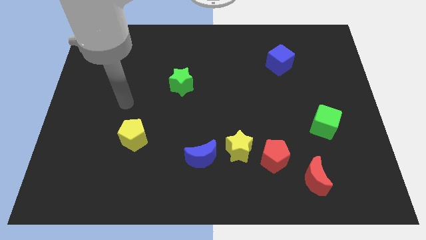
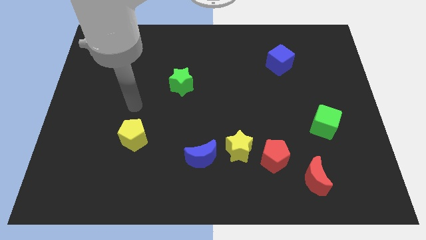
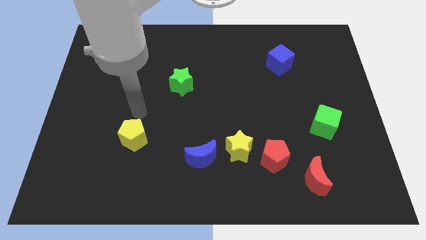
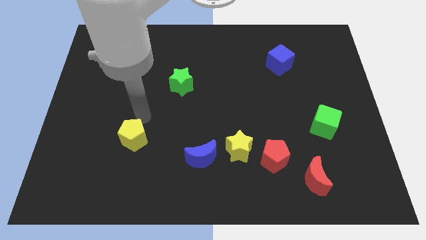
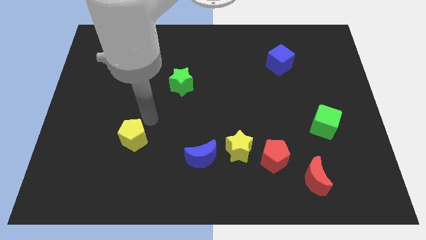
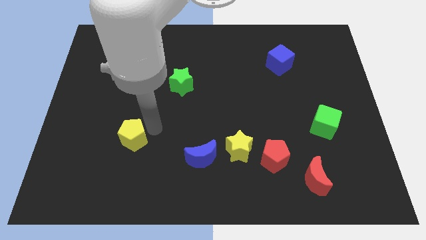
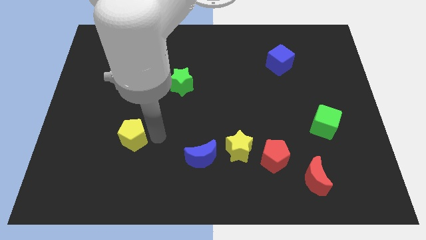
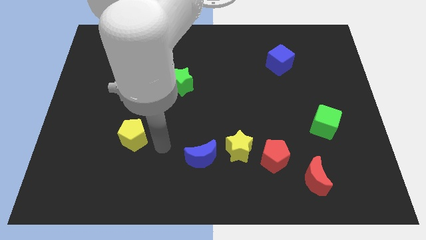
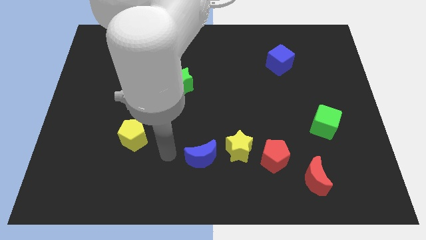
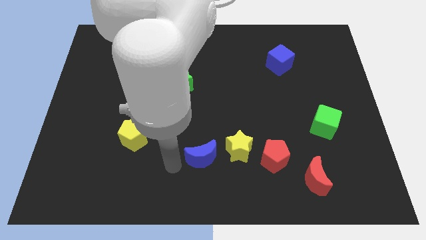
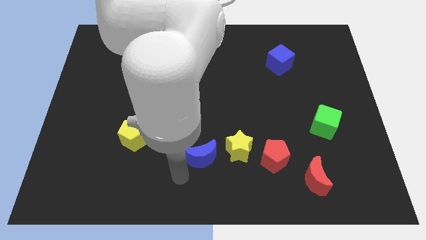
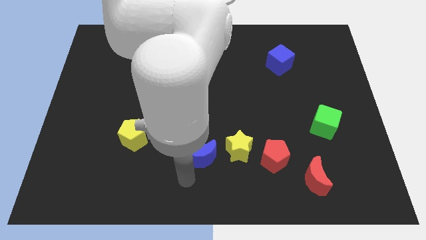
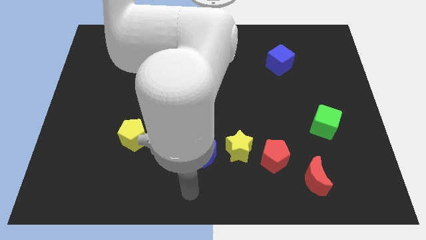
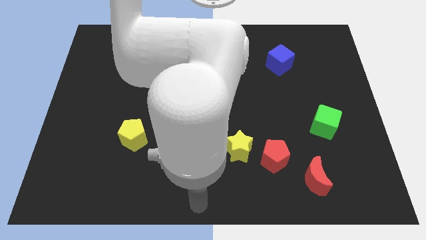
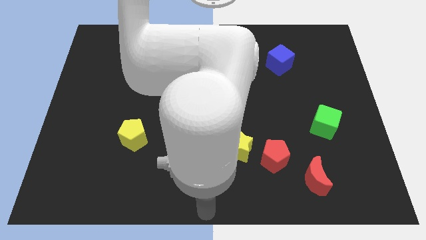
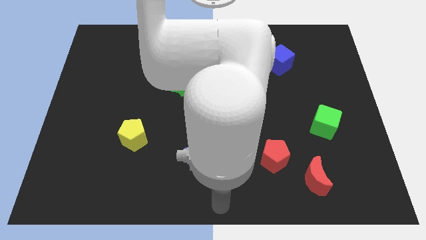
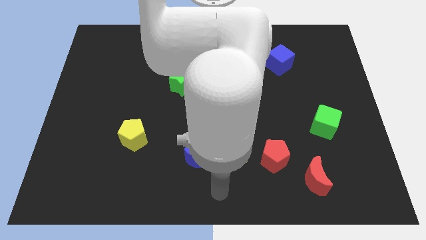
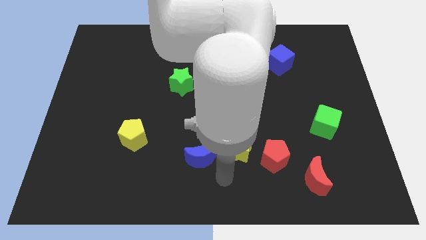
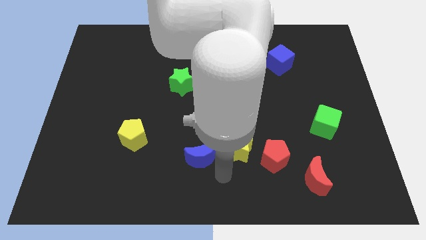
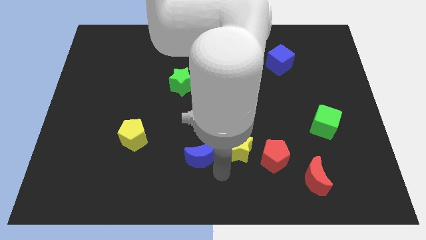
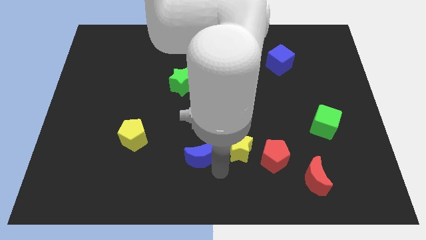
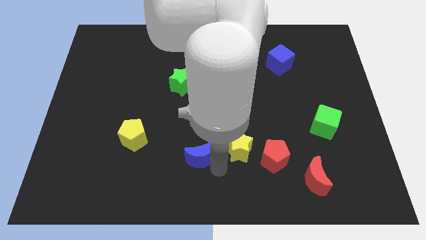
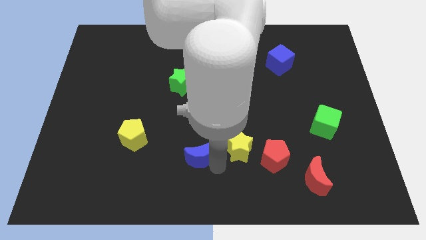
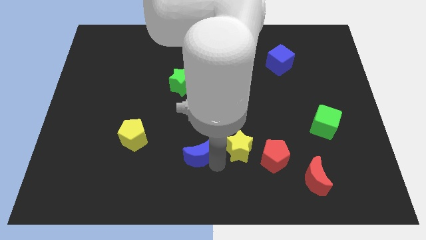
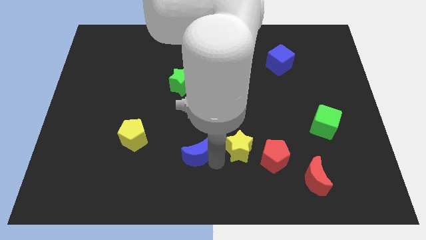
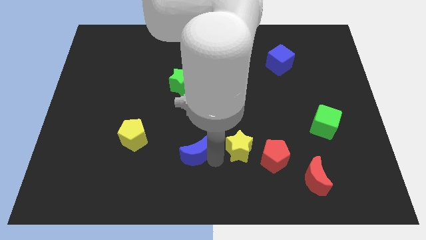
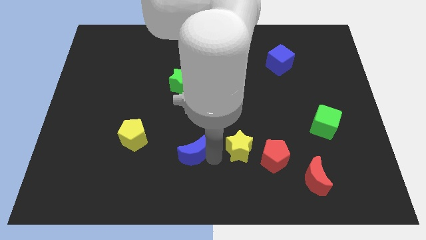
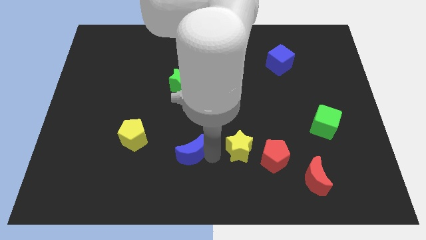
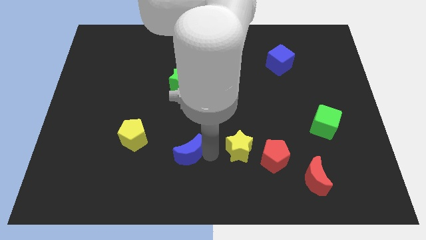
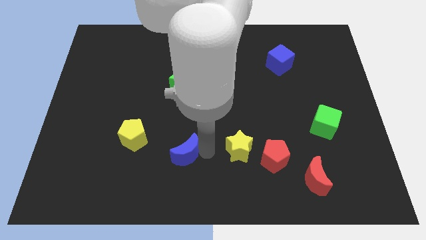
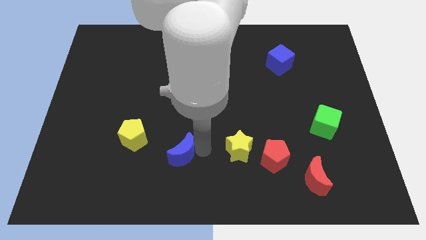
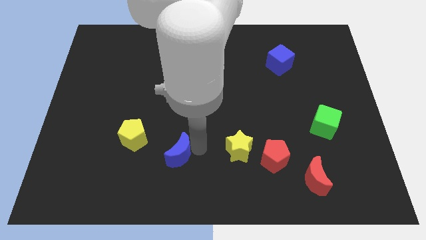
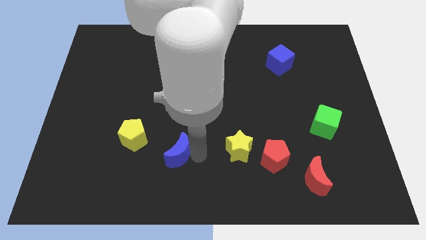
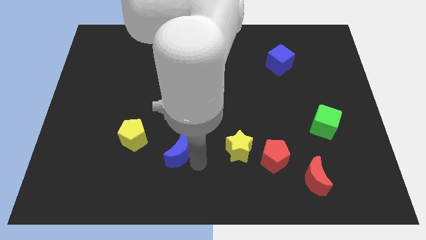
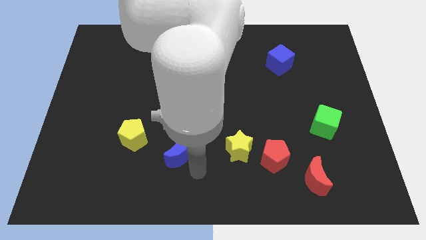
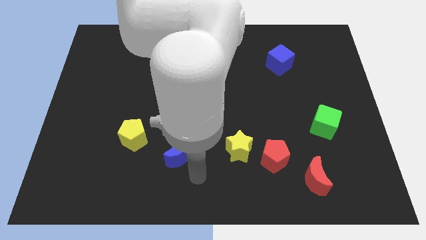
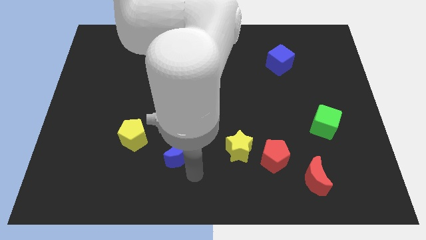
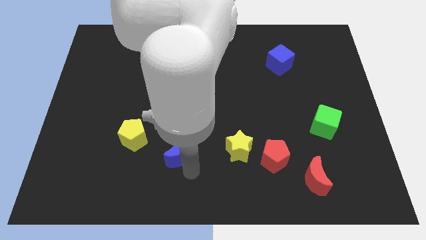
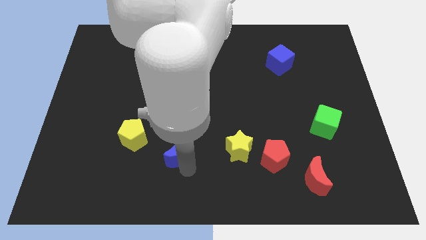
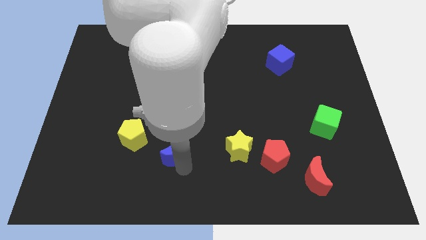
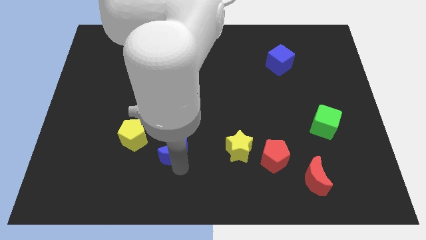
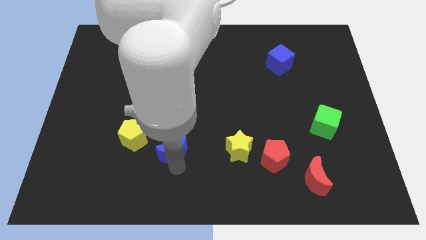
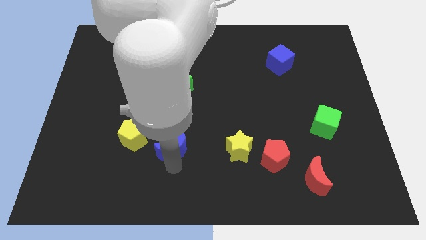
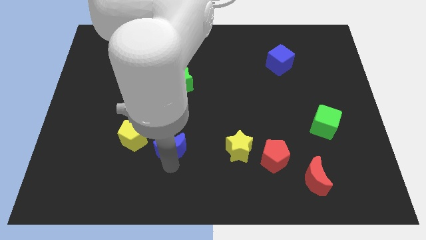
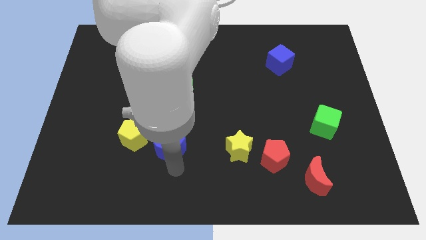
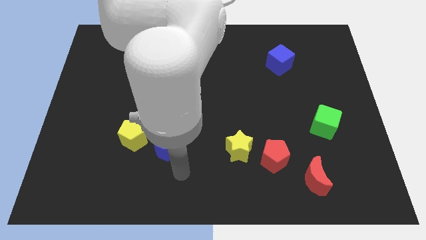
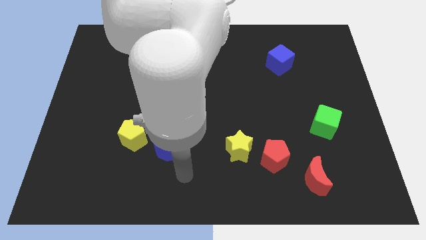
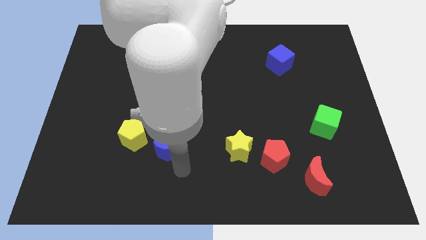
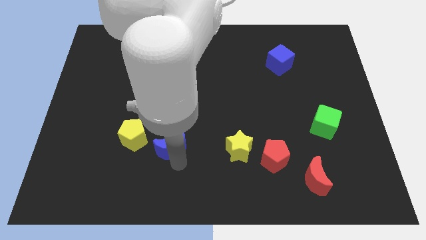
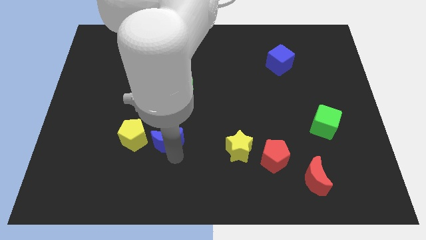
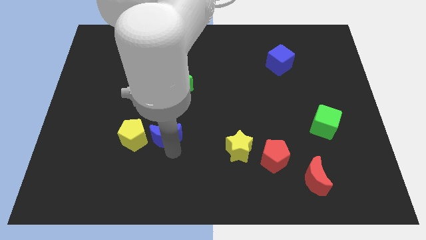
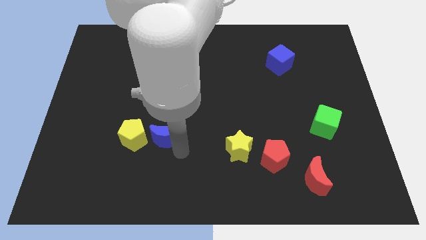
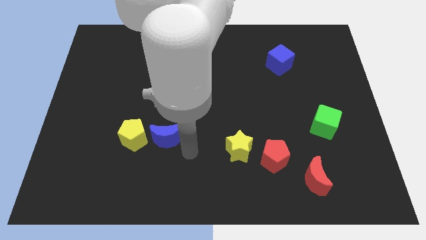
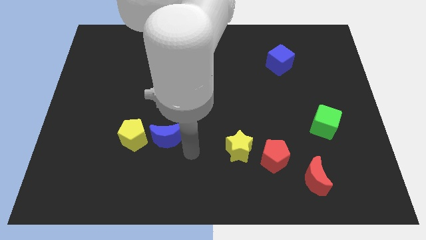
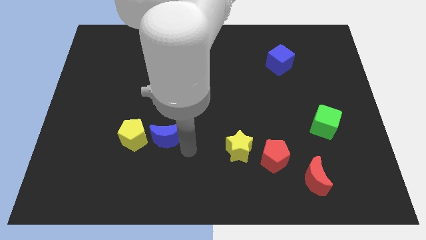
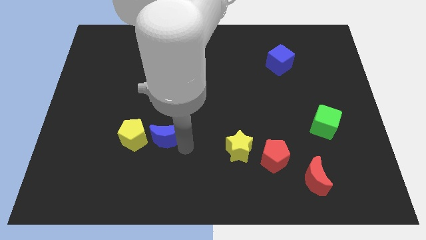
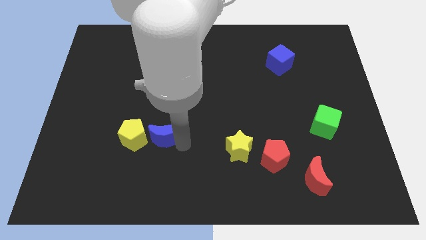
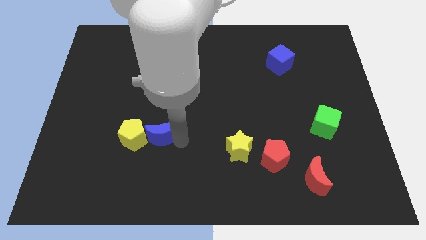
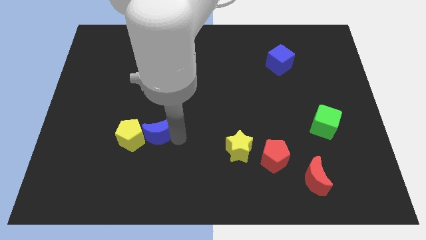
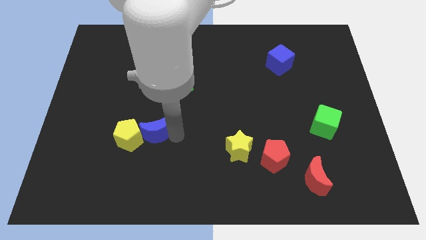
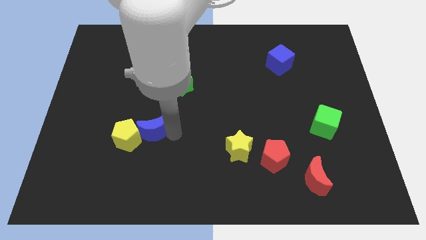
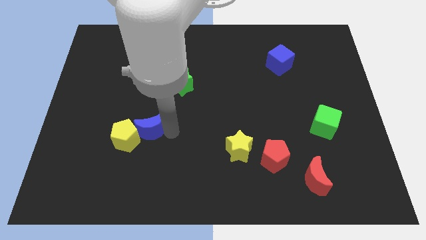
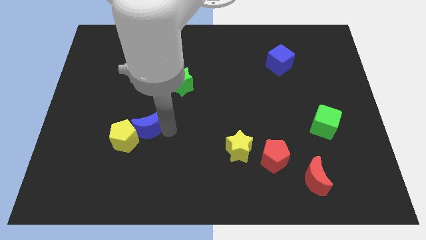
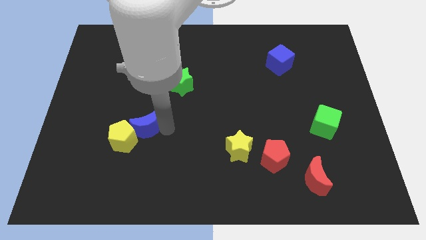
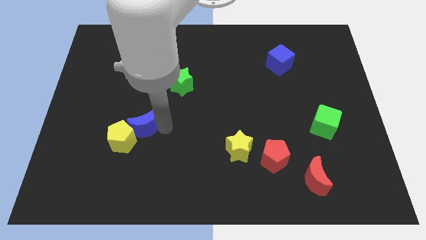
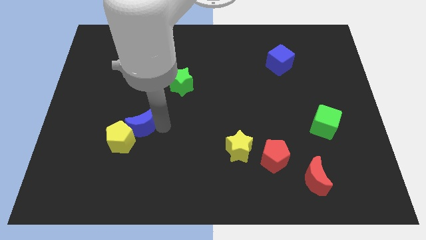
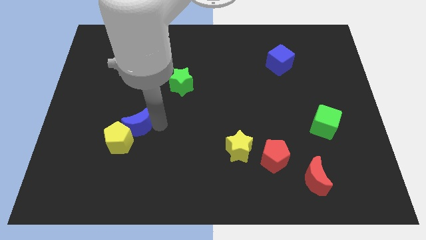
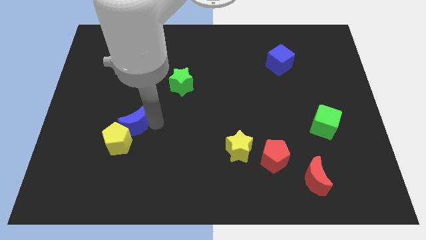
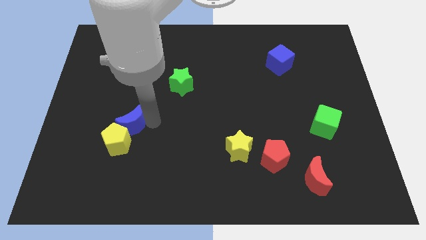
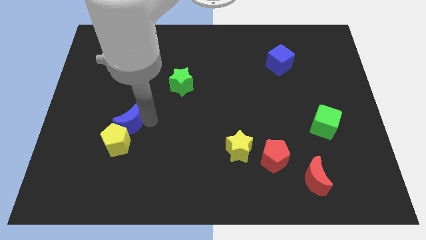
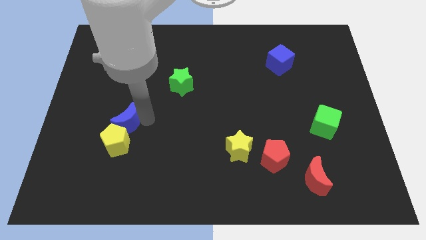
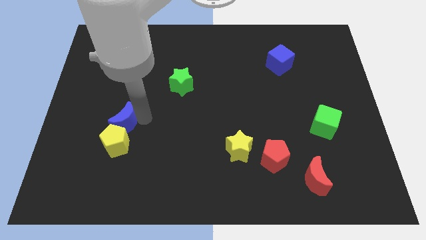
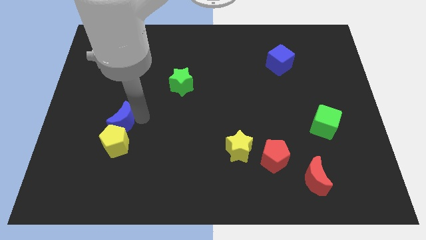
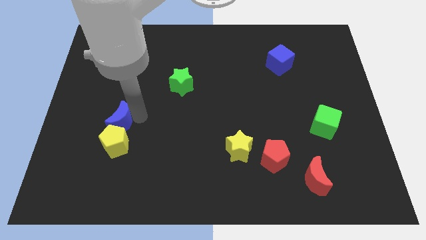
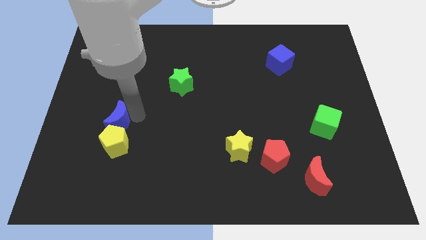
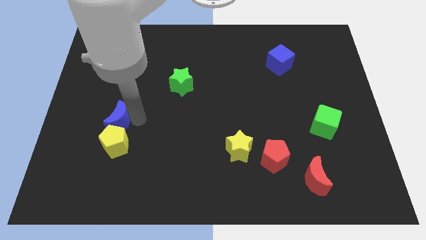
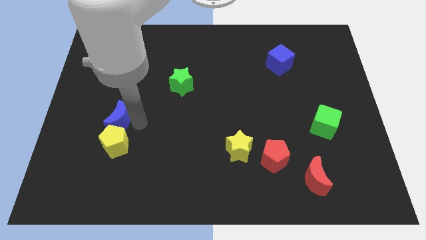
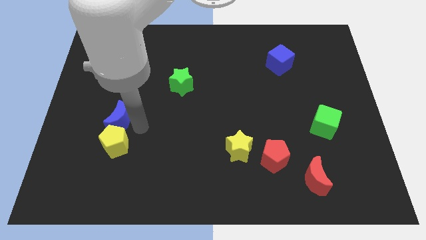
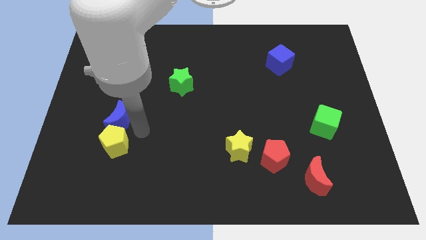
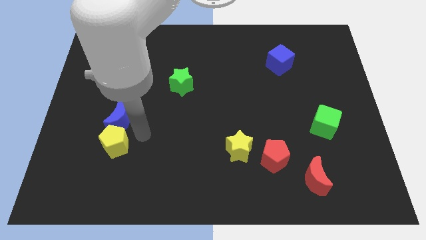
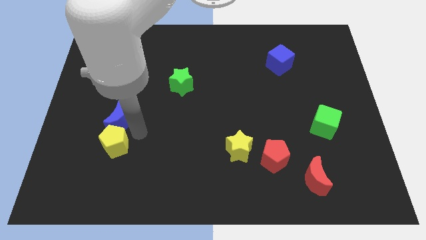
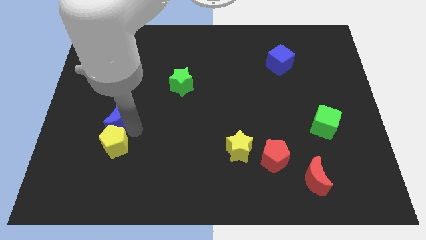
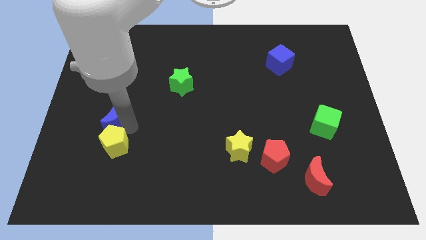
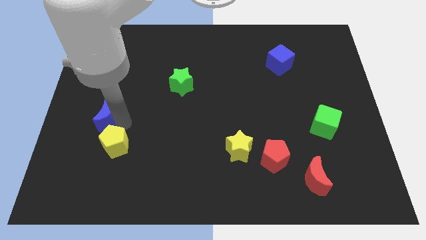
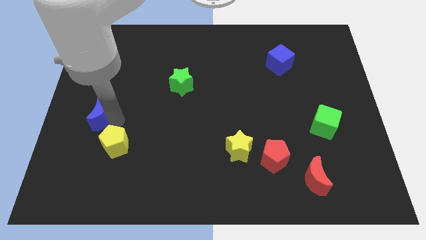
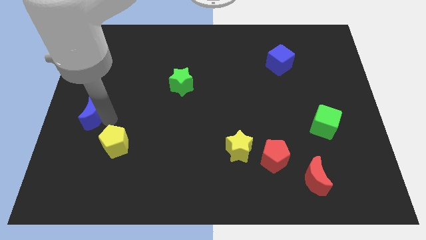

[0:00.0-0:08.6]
slide the blue moon to the center left
